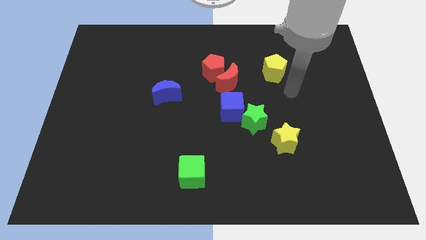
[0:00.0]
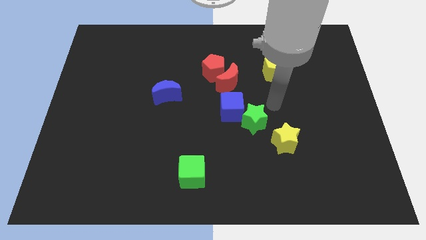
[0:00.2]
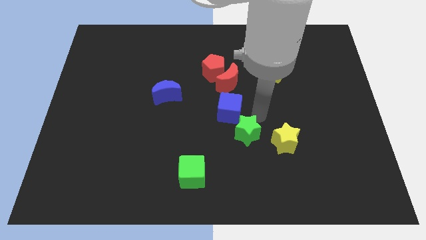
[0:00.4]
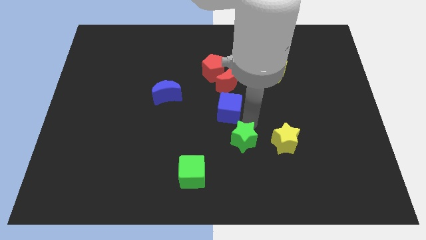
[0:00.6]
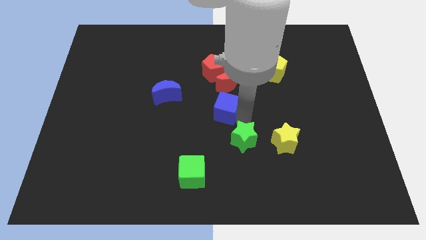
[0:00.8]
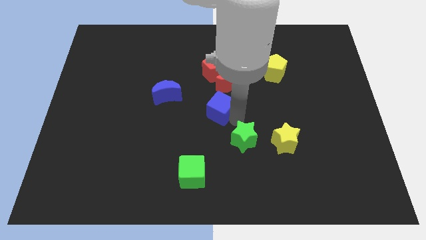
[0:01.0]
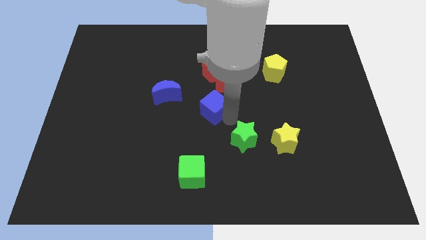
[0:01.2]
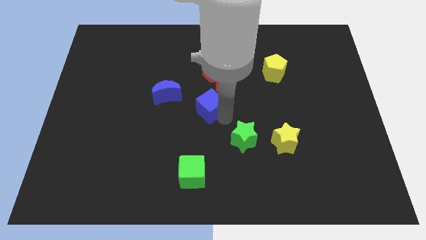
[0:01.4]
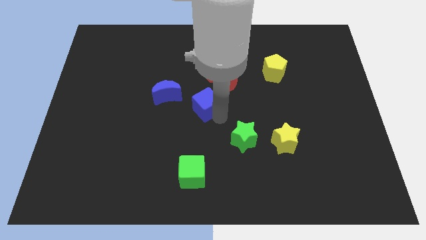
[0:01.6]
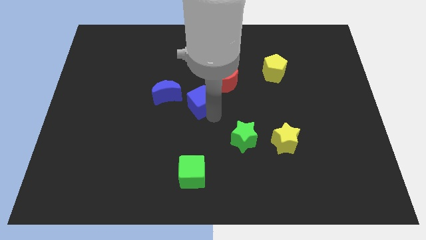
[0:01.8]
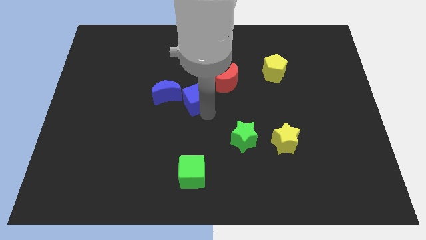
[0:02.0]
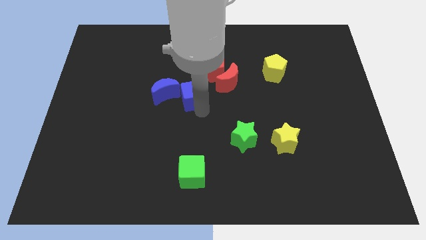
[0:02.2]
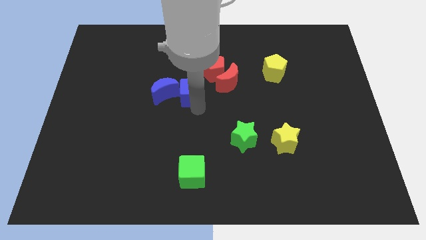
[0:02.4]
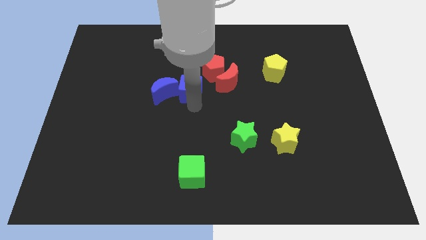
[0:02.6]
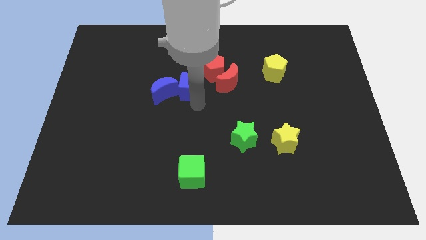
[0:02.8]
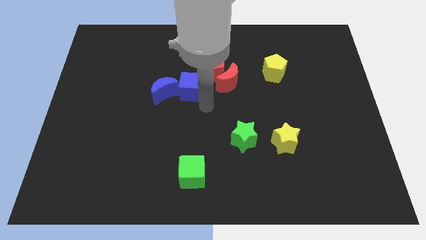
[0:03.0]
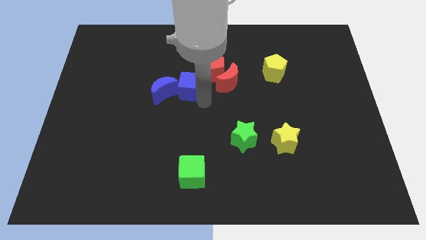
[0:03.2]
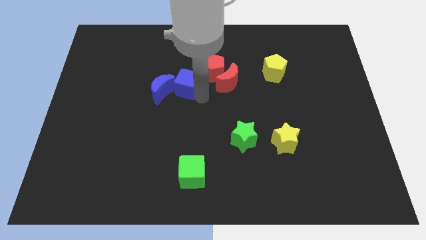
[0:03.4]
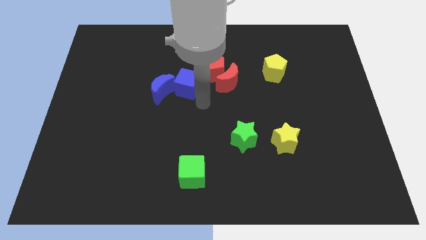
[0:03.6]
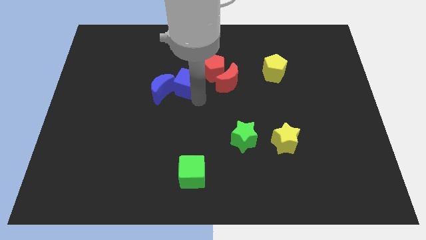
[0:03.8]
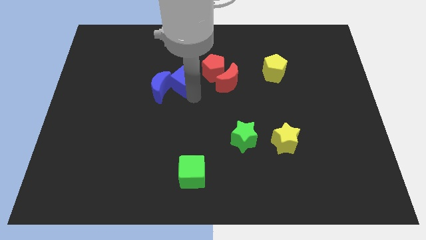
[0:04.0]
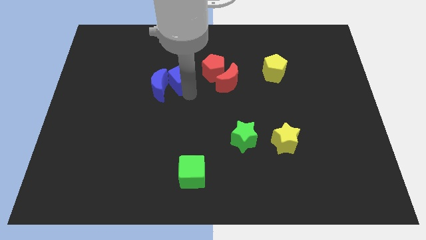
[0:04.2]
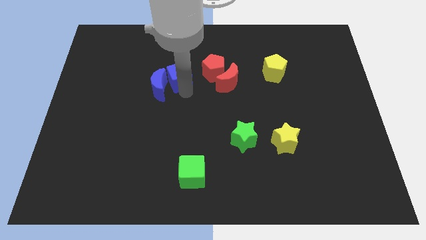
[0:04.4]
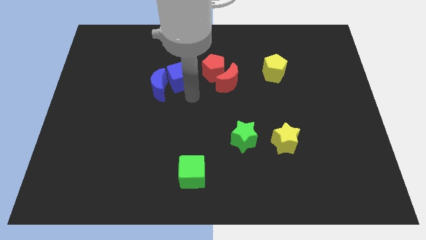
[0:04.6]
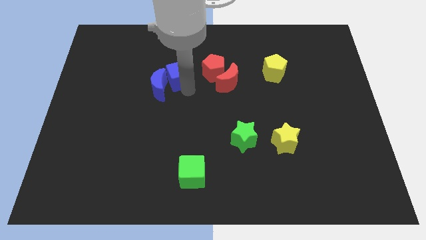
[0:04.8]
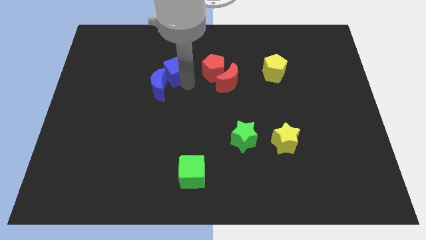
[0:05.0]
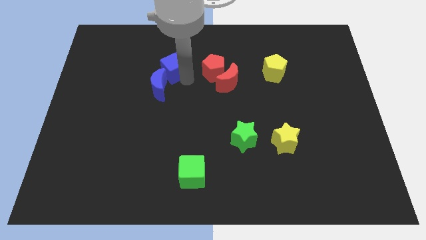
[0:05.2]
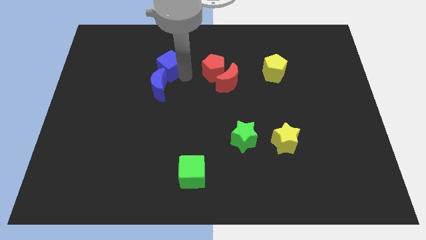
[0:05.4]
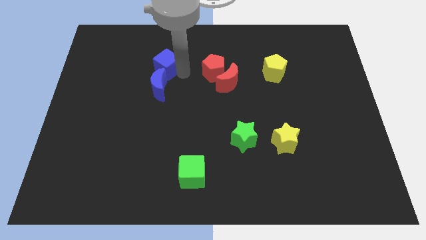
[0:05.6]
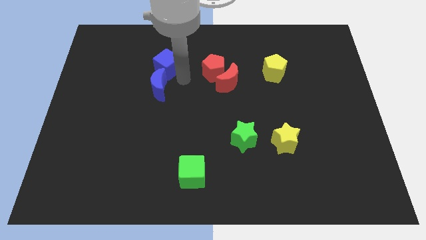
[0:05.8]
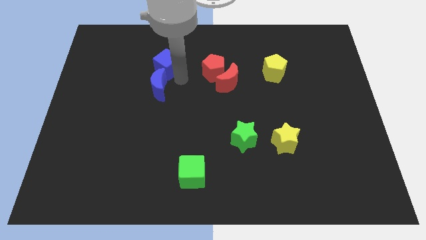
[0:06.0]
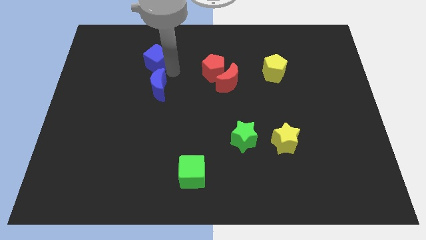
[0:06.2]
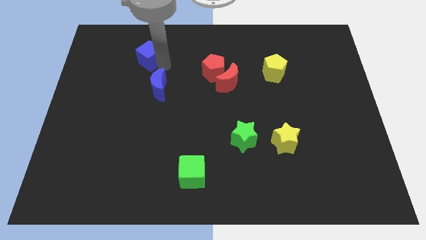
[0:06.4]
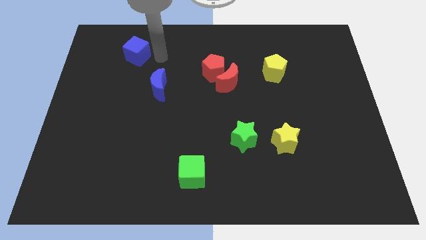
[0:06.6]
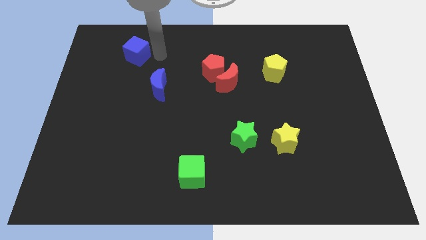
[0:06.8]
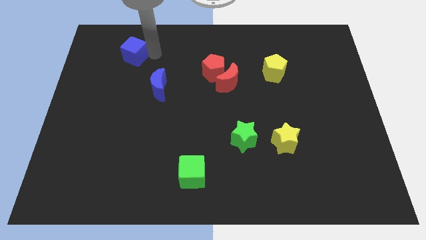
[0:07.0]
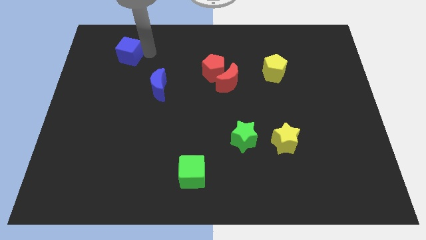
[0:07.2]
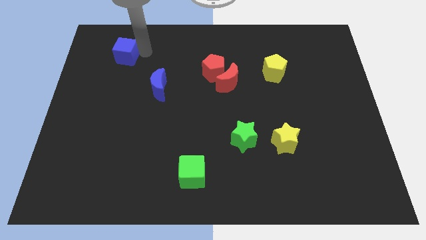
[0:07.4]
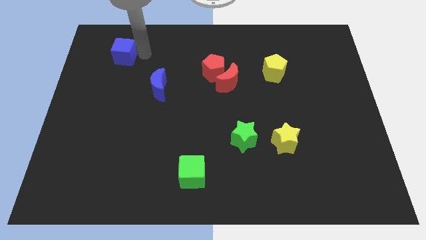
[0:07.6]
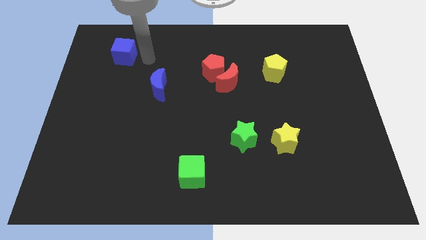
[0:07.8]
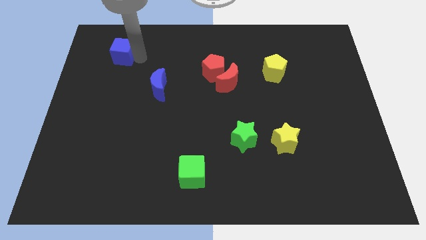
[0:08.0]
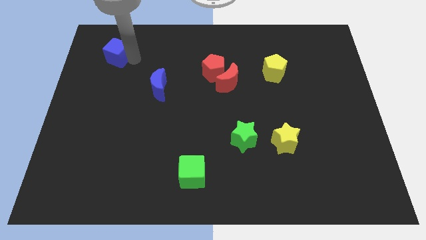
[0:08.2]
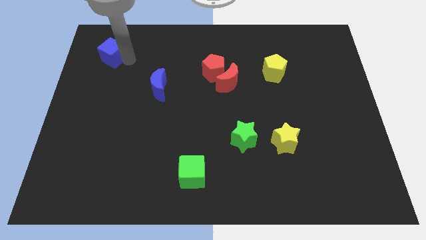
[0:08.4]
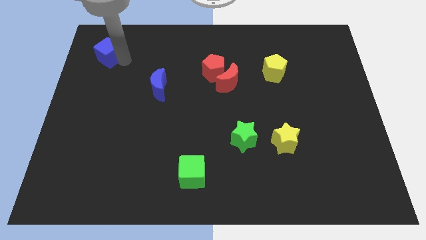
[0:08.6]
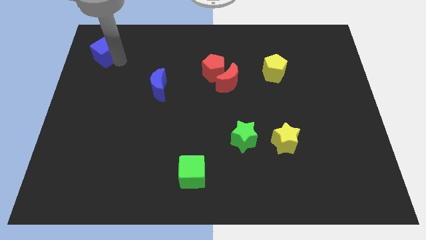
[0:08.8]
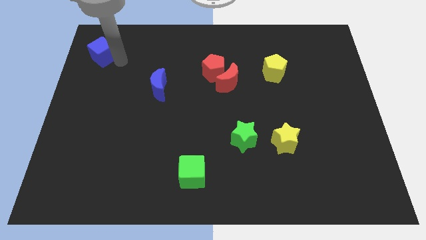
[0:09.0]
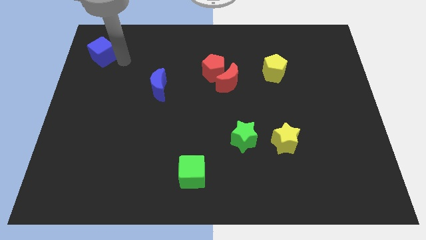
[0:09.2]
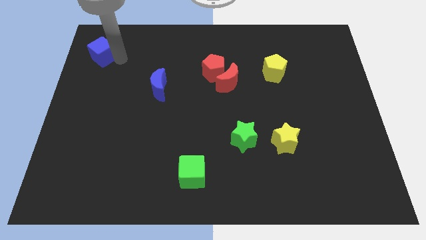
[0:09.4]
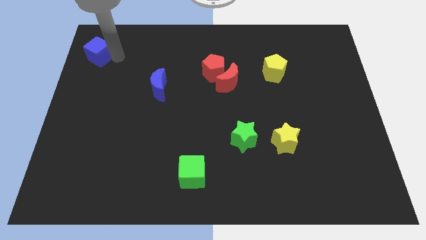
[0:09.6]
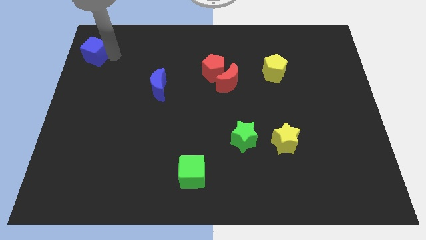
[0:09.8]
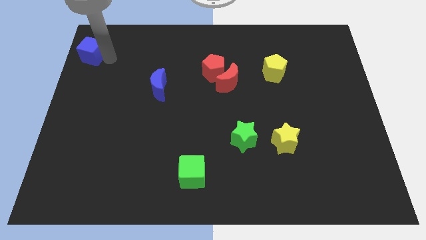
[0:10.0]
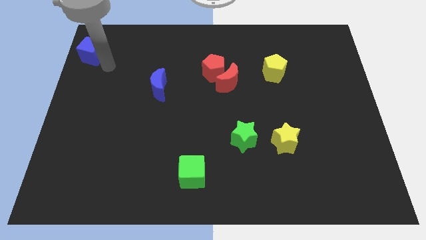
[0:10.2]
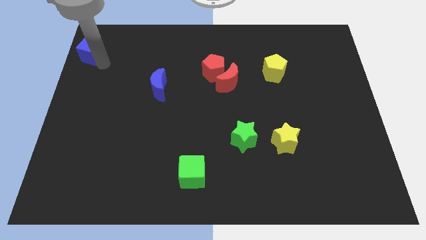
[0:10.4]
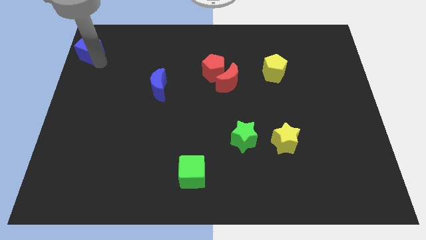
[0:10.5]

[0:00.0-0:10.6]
put the blue cube to the upper left corner

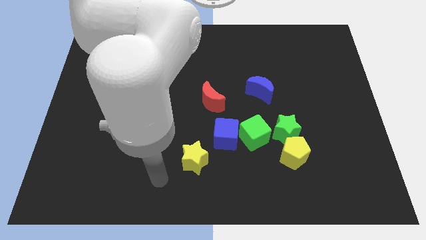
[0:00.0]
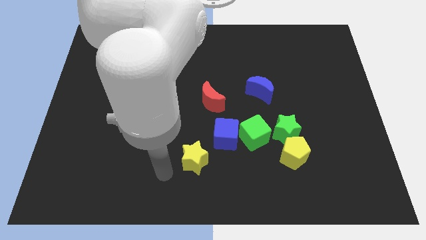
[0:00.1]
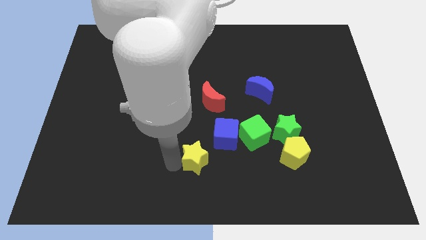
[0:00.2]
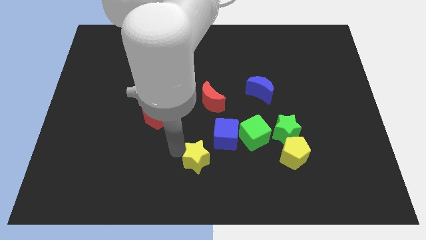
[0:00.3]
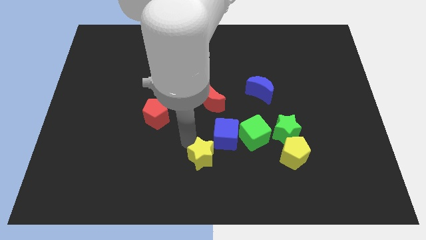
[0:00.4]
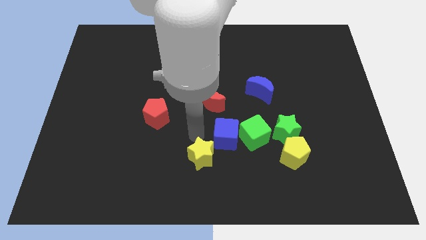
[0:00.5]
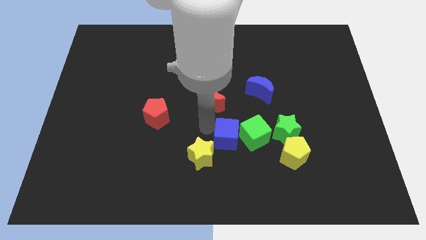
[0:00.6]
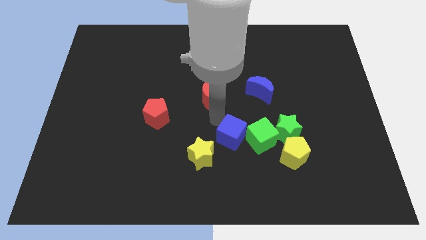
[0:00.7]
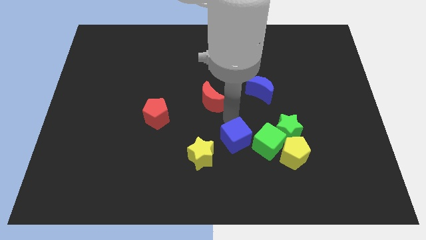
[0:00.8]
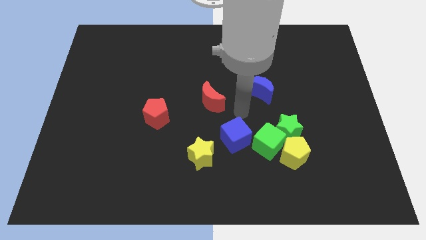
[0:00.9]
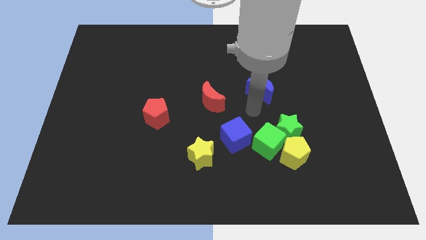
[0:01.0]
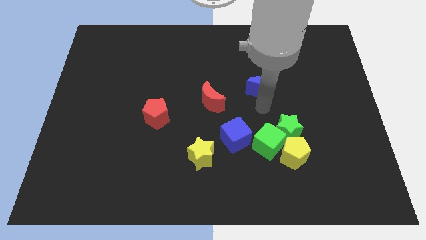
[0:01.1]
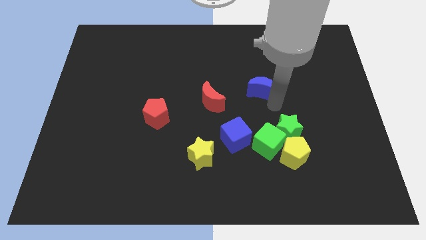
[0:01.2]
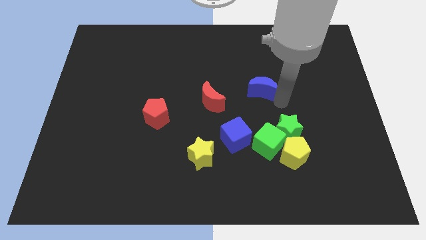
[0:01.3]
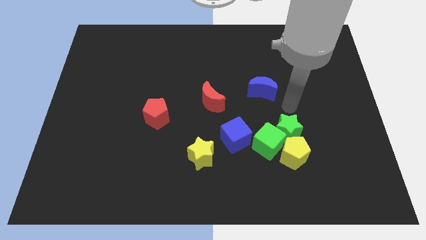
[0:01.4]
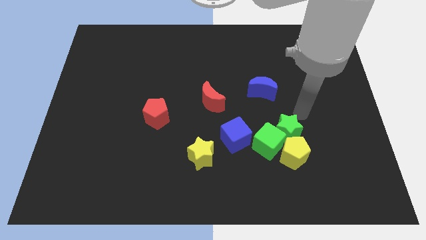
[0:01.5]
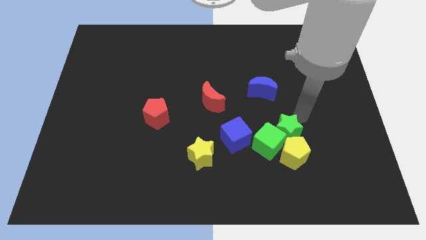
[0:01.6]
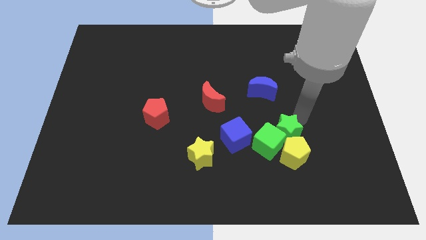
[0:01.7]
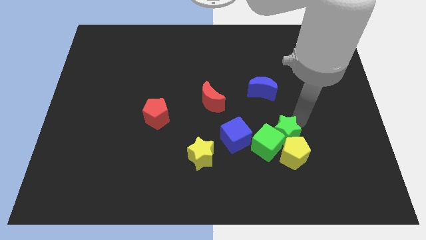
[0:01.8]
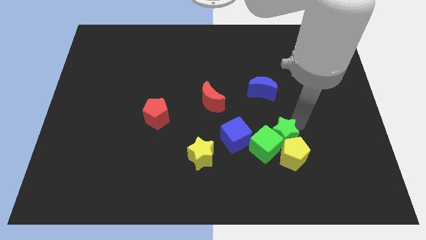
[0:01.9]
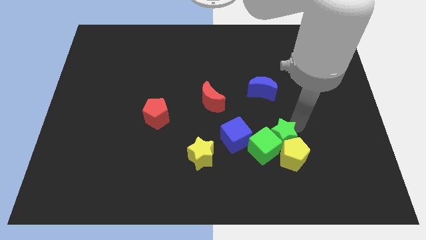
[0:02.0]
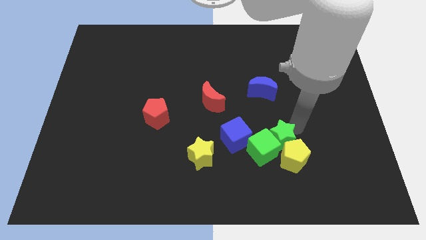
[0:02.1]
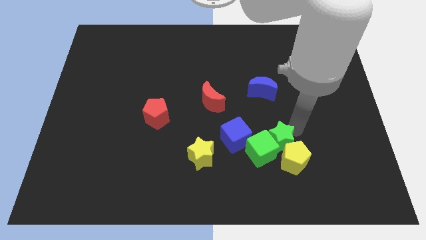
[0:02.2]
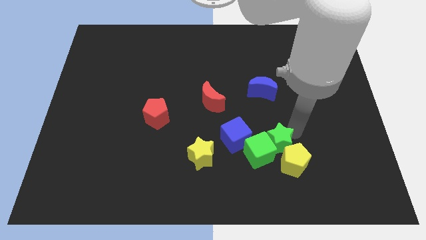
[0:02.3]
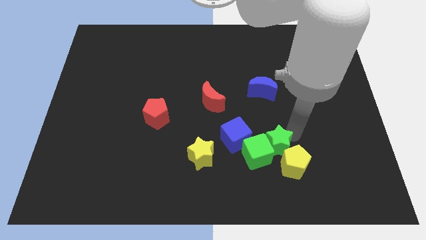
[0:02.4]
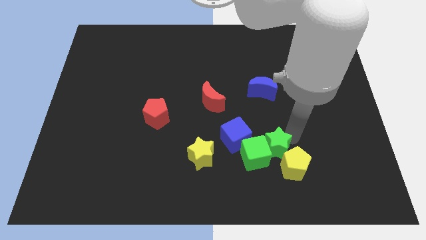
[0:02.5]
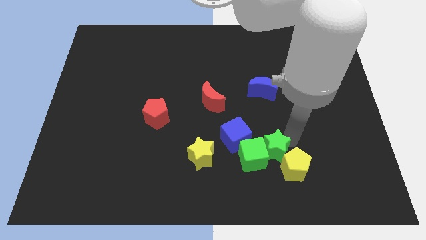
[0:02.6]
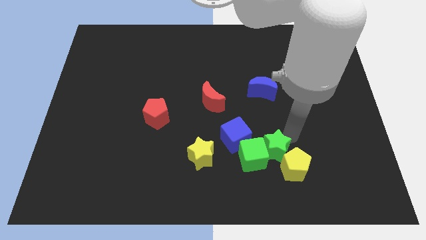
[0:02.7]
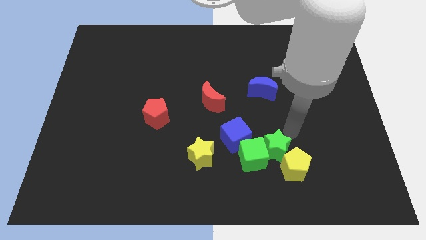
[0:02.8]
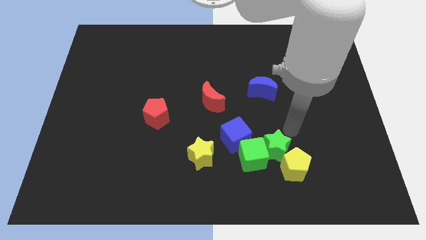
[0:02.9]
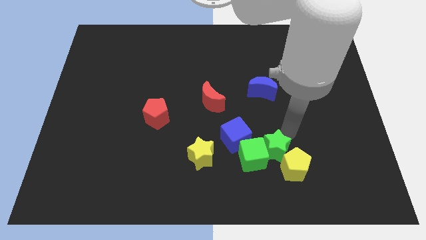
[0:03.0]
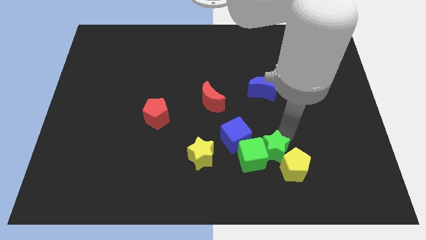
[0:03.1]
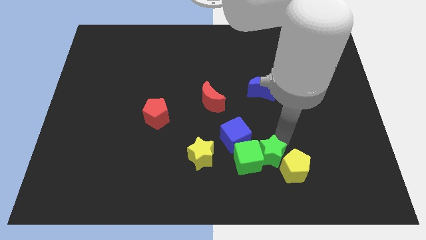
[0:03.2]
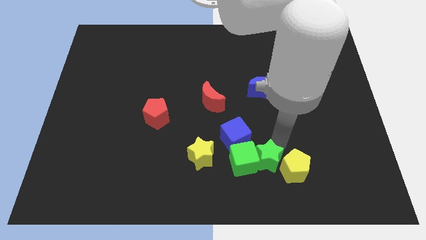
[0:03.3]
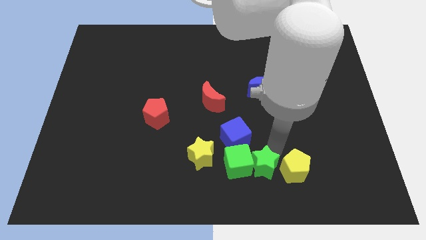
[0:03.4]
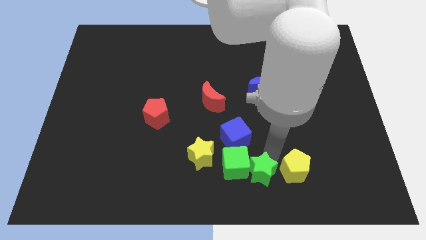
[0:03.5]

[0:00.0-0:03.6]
move the green star to the bottom side
